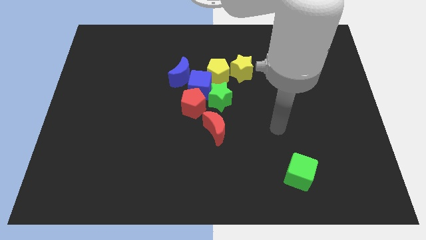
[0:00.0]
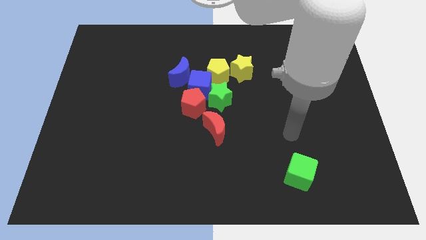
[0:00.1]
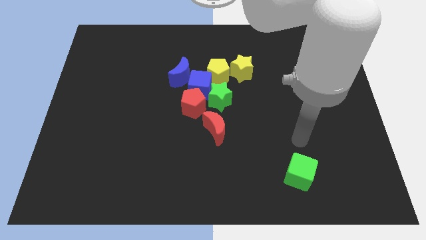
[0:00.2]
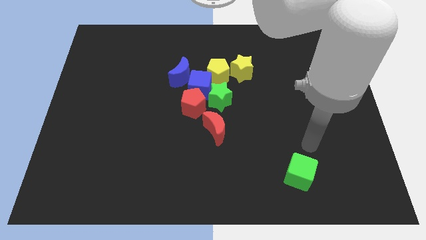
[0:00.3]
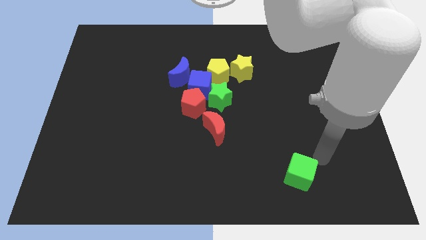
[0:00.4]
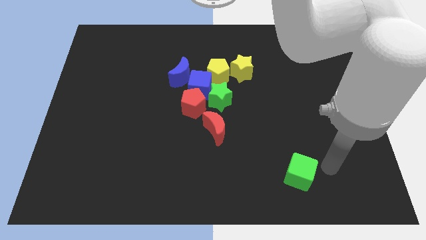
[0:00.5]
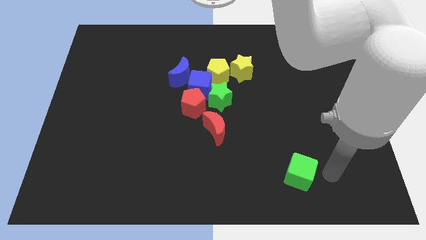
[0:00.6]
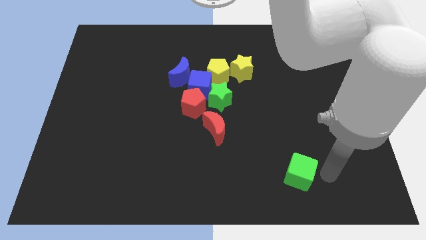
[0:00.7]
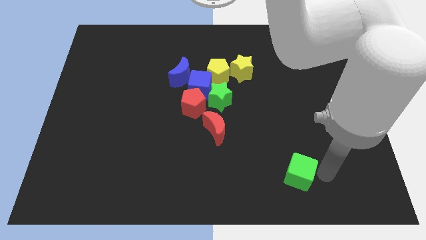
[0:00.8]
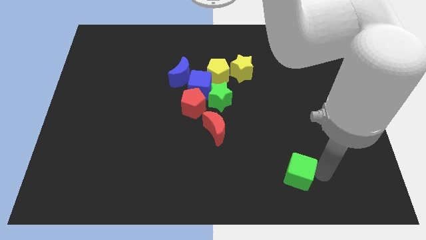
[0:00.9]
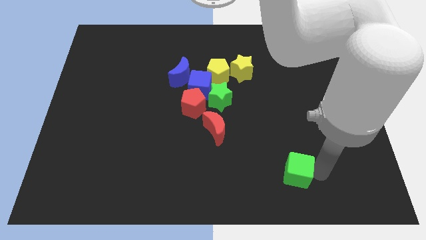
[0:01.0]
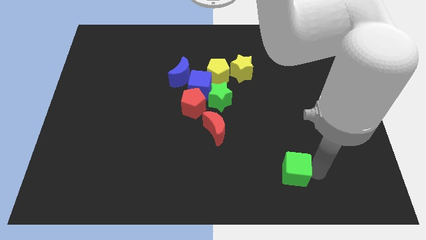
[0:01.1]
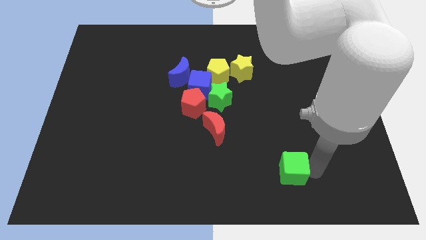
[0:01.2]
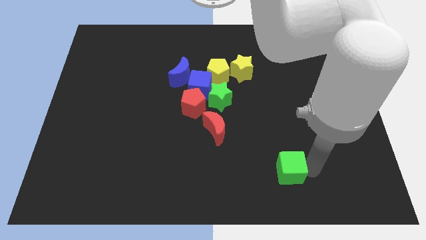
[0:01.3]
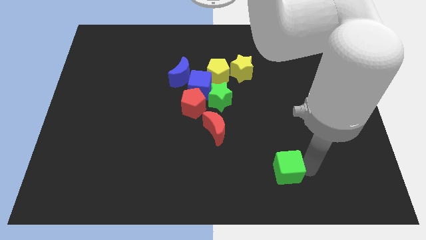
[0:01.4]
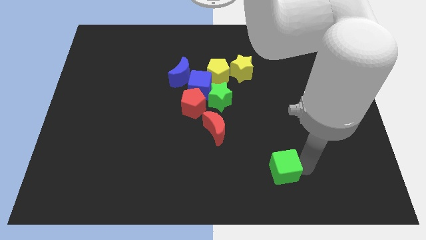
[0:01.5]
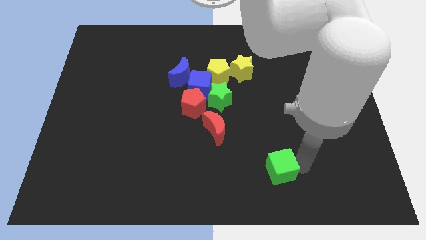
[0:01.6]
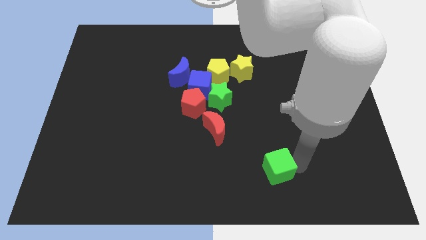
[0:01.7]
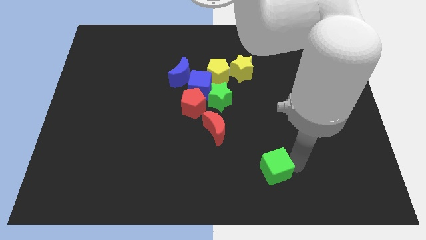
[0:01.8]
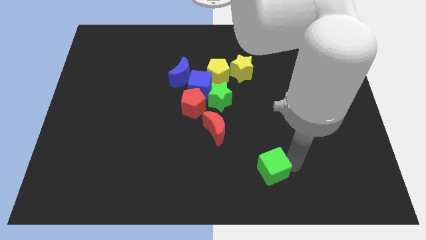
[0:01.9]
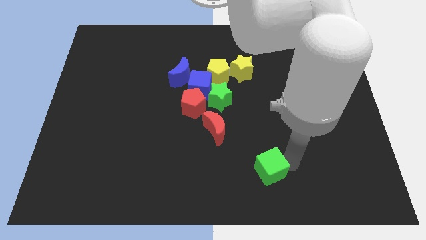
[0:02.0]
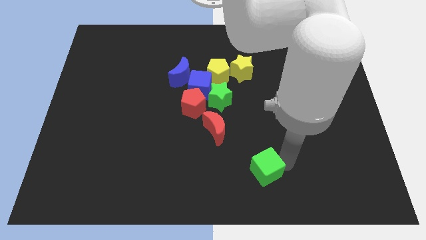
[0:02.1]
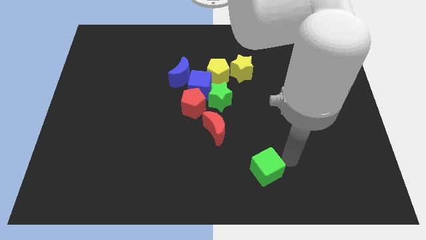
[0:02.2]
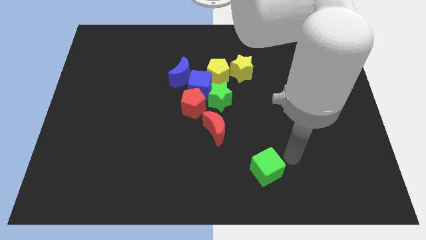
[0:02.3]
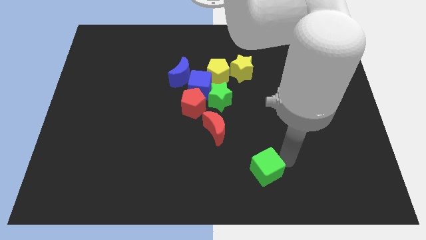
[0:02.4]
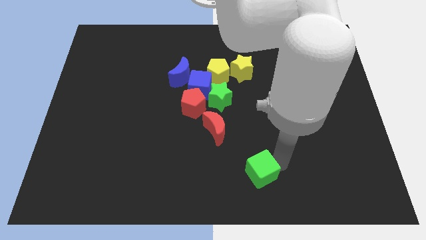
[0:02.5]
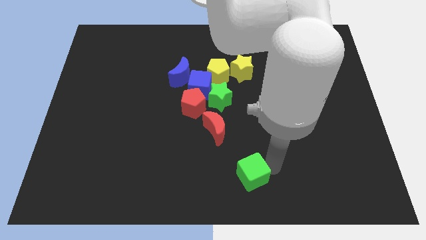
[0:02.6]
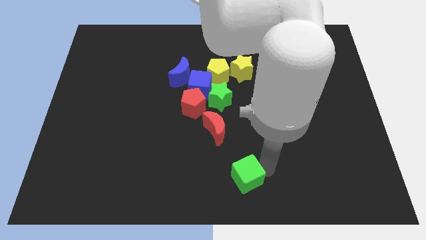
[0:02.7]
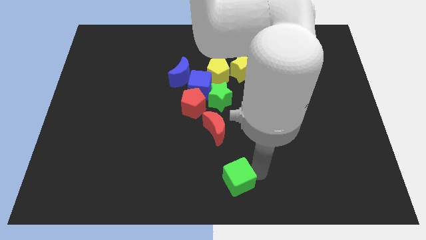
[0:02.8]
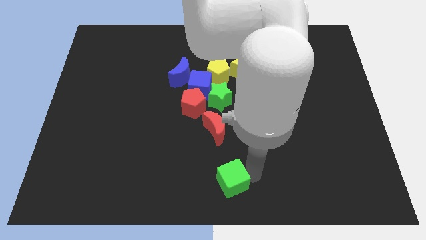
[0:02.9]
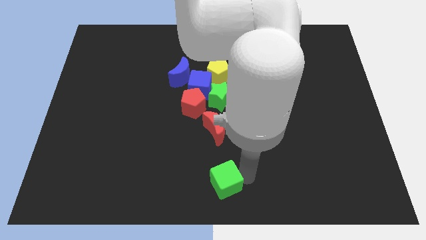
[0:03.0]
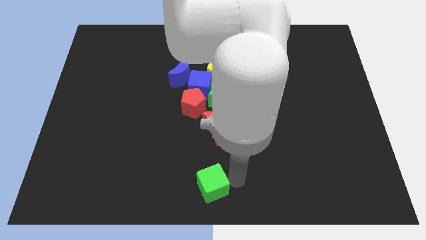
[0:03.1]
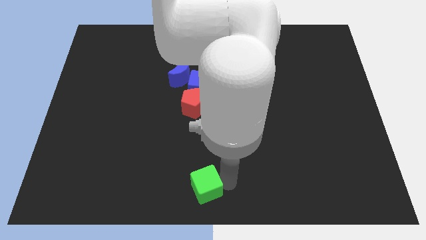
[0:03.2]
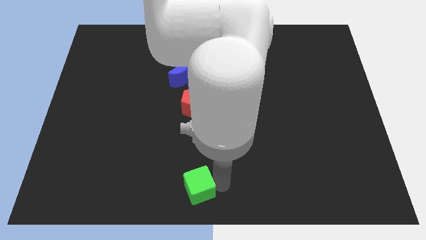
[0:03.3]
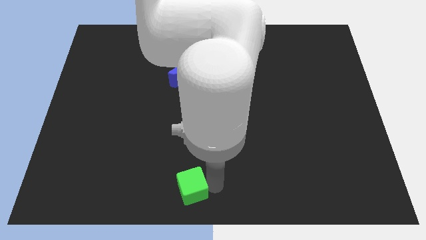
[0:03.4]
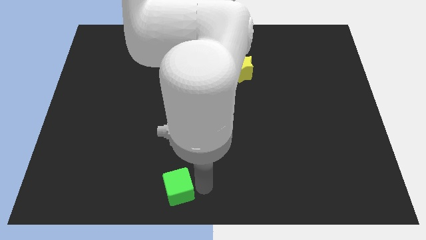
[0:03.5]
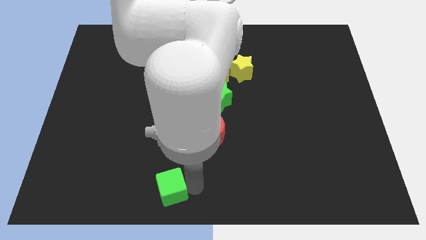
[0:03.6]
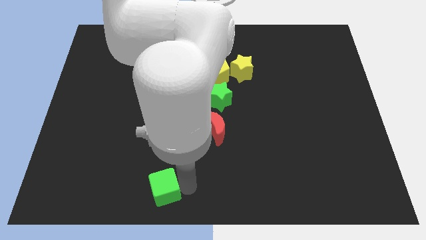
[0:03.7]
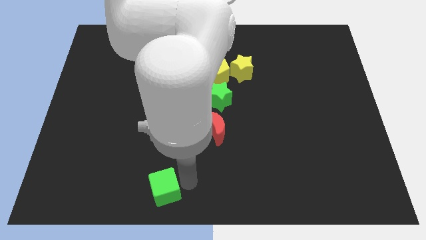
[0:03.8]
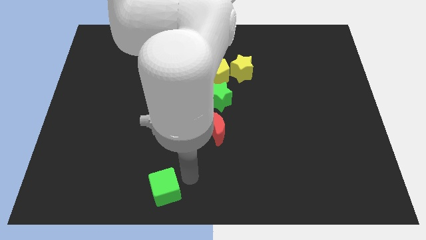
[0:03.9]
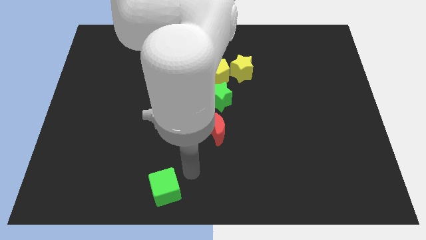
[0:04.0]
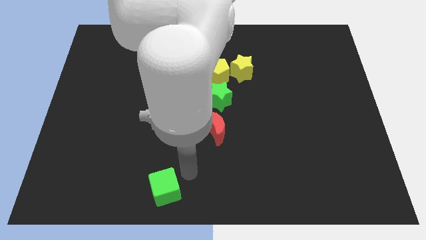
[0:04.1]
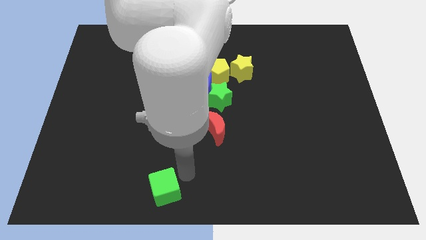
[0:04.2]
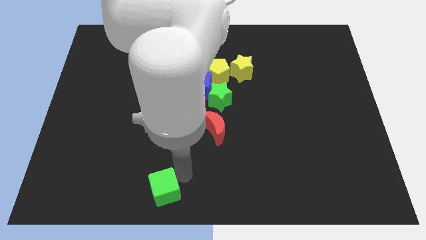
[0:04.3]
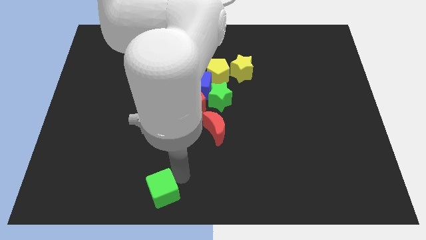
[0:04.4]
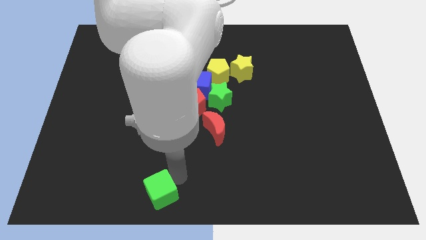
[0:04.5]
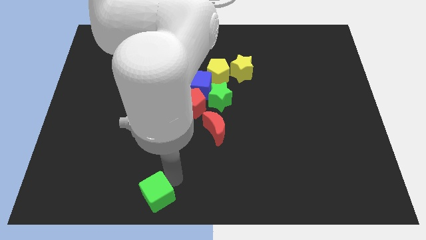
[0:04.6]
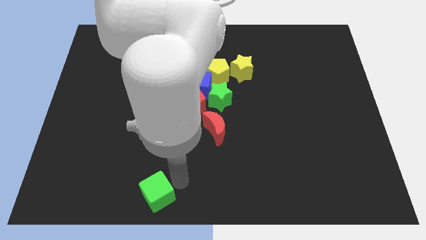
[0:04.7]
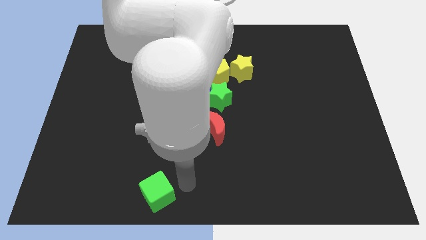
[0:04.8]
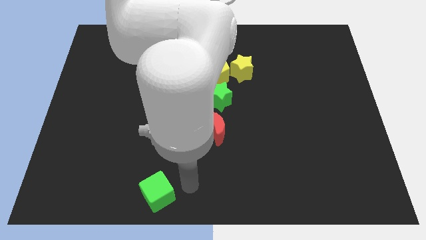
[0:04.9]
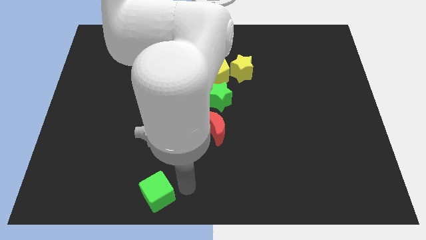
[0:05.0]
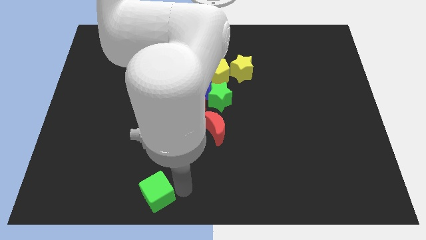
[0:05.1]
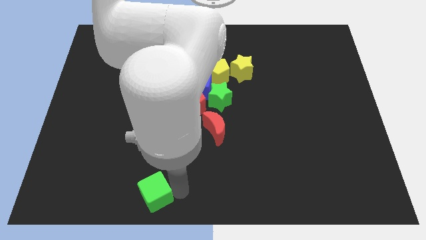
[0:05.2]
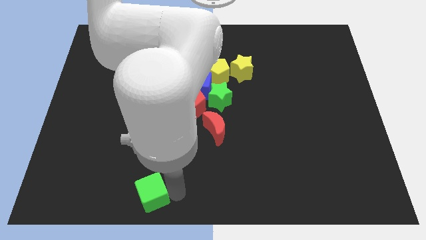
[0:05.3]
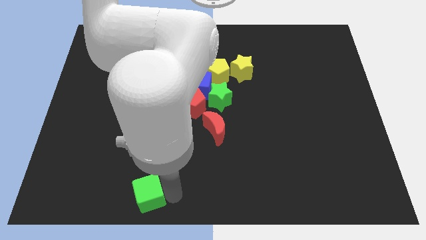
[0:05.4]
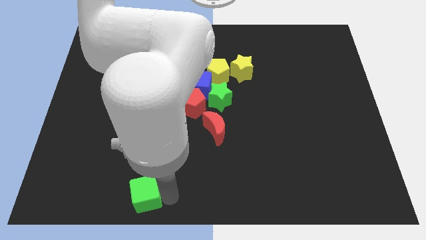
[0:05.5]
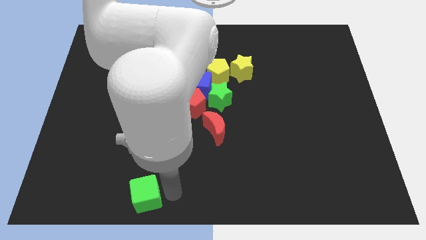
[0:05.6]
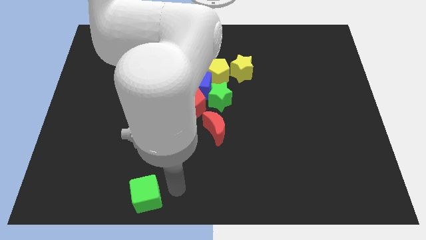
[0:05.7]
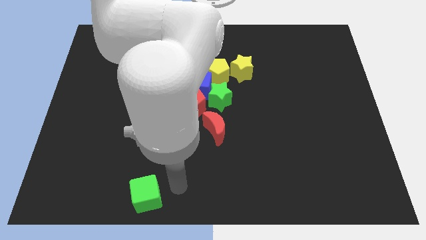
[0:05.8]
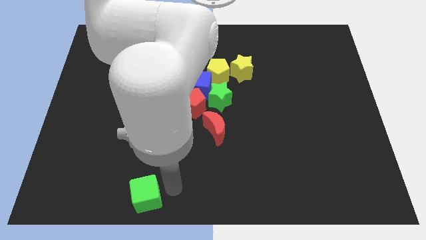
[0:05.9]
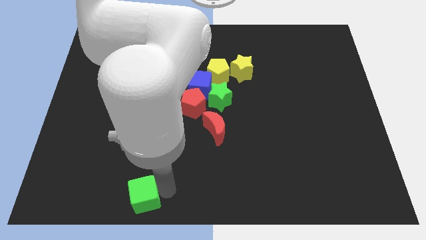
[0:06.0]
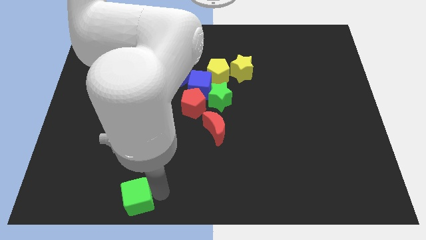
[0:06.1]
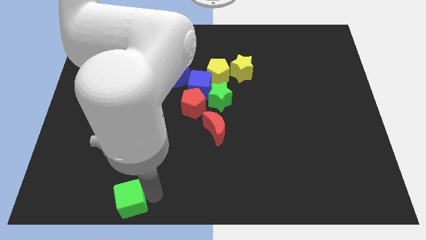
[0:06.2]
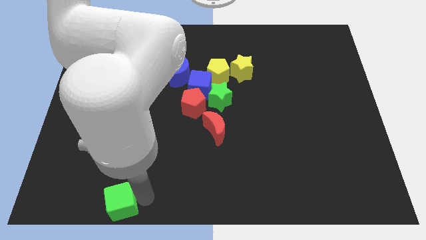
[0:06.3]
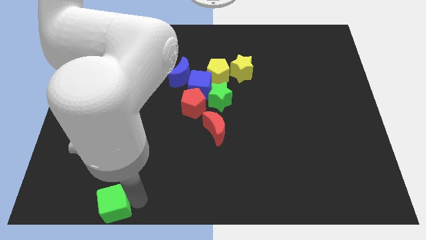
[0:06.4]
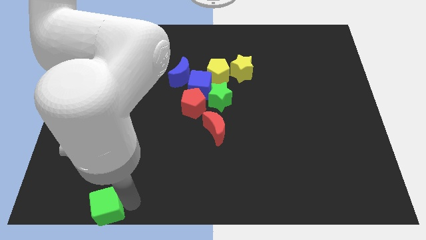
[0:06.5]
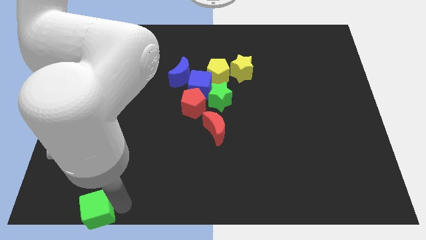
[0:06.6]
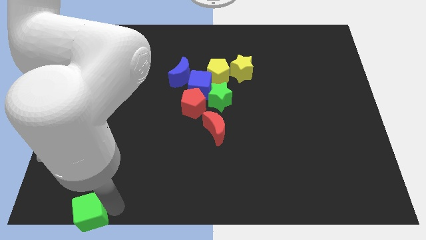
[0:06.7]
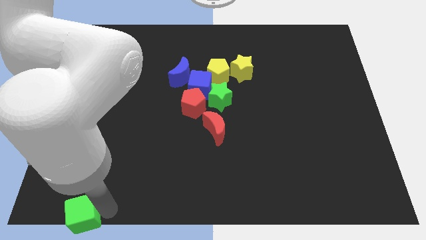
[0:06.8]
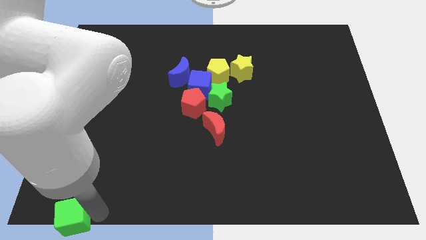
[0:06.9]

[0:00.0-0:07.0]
put the green cube to the bottom left of the board

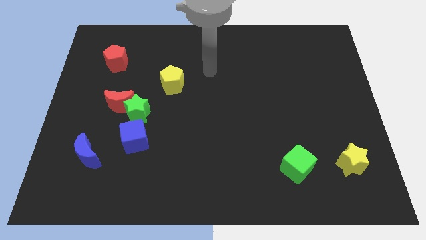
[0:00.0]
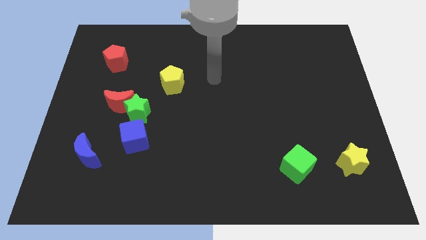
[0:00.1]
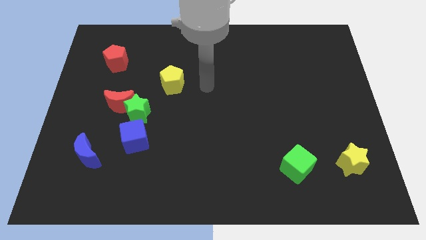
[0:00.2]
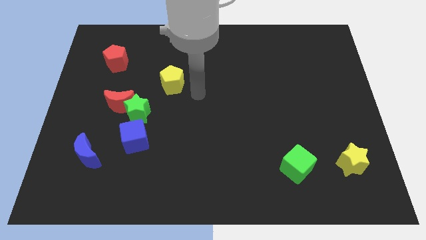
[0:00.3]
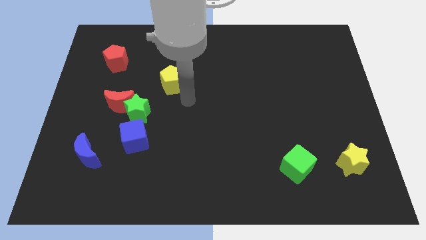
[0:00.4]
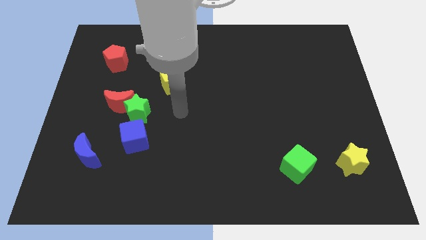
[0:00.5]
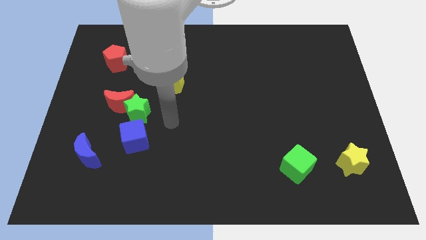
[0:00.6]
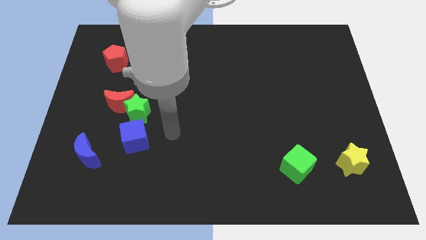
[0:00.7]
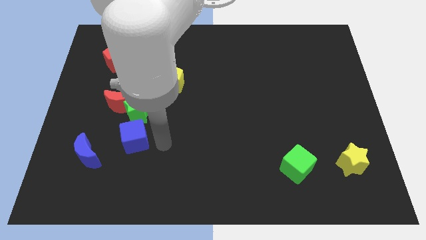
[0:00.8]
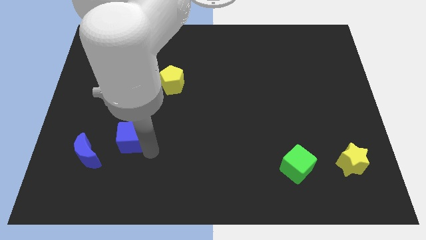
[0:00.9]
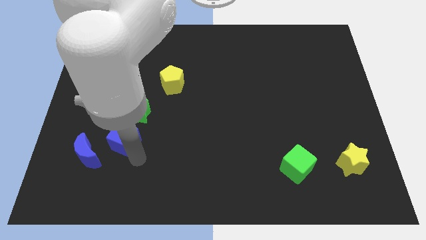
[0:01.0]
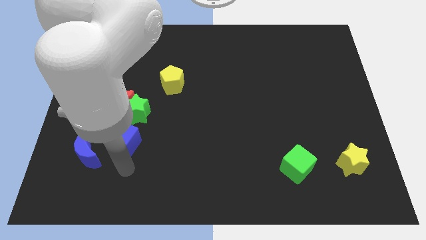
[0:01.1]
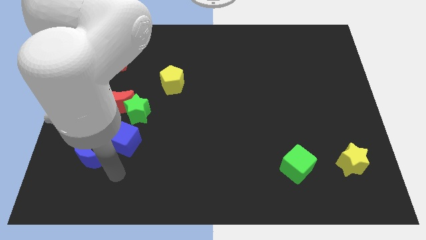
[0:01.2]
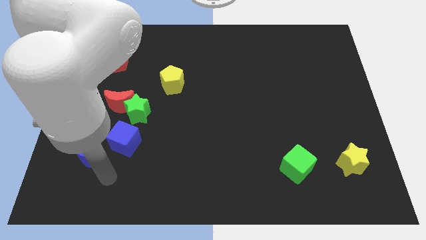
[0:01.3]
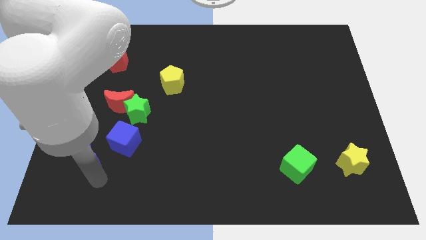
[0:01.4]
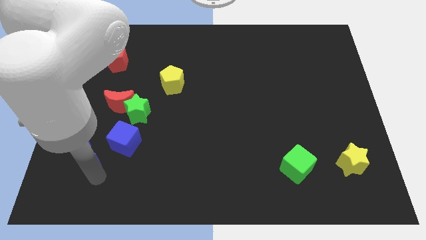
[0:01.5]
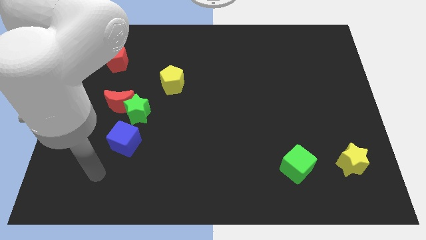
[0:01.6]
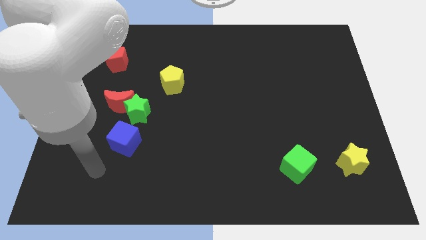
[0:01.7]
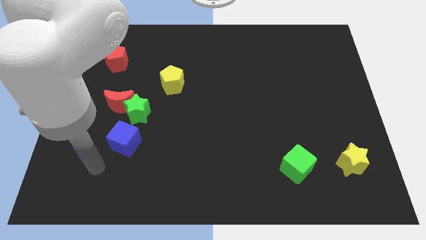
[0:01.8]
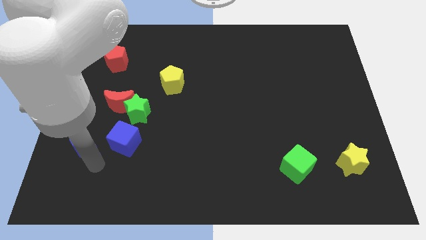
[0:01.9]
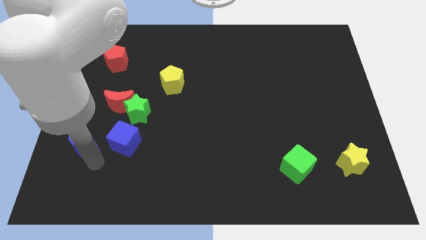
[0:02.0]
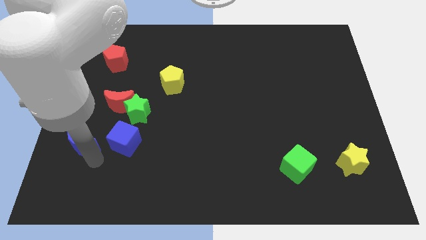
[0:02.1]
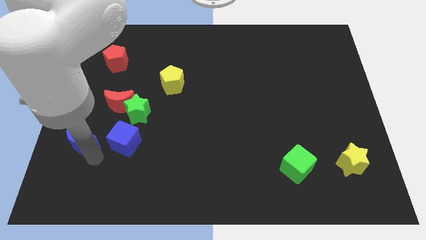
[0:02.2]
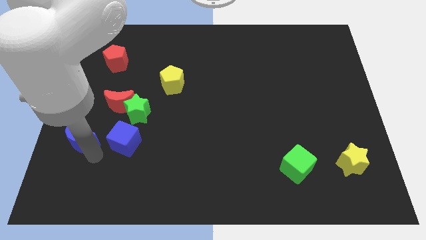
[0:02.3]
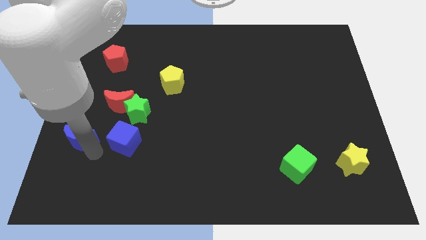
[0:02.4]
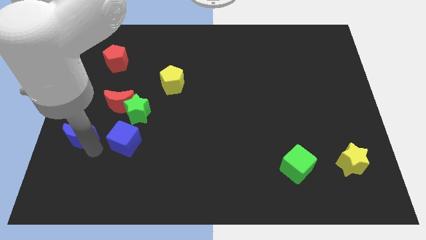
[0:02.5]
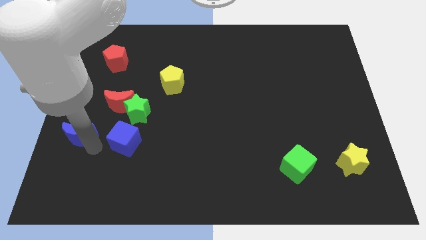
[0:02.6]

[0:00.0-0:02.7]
slide the blue moon to the left side of the board
